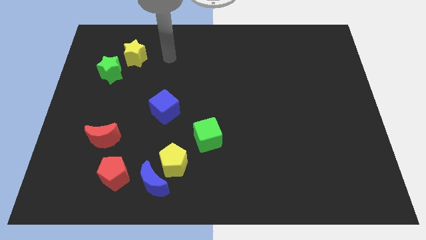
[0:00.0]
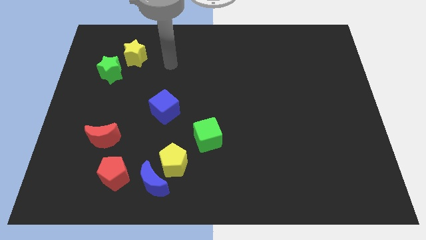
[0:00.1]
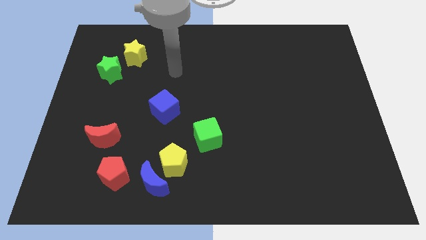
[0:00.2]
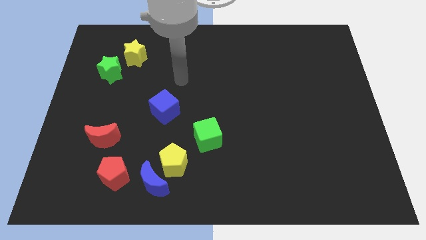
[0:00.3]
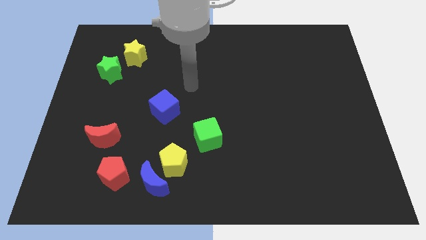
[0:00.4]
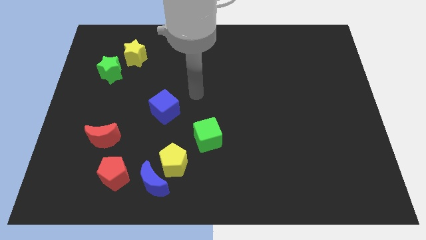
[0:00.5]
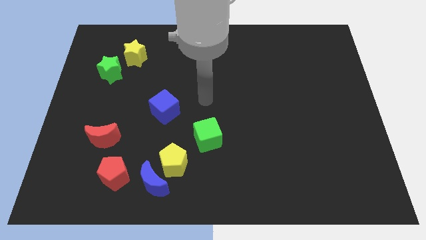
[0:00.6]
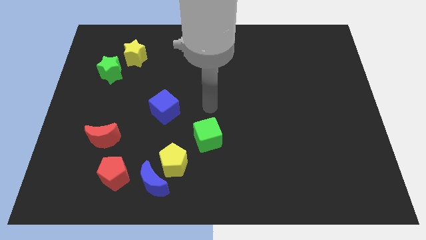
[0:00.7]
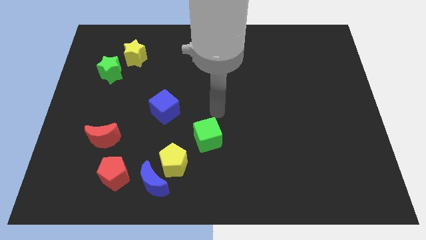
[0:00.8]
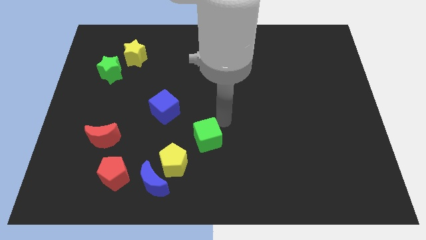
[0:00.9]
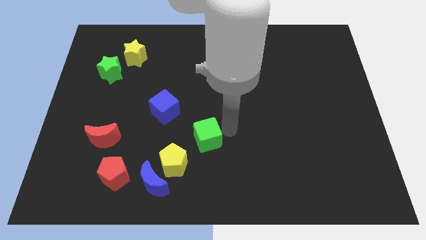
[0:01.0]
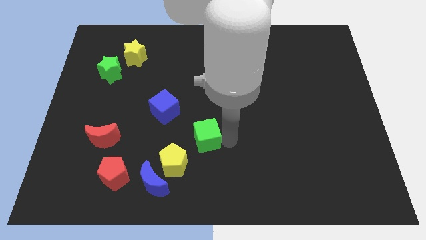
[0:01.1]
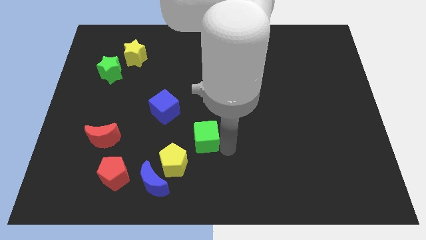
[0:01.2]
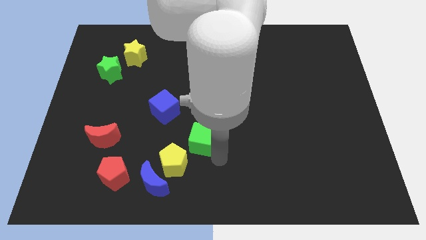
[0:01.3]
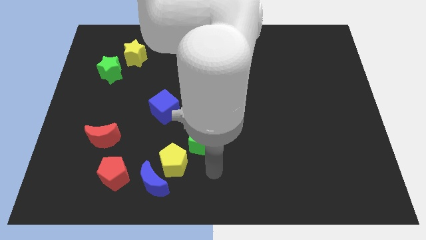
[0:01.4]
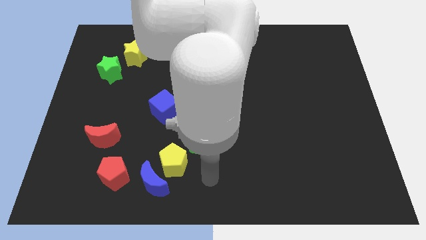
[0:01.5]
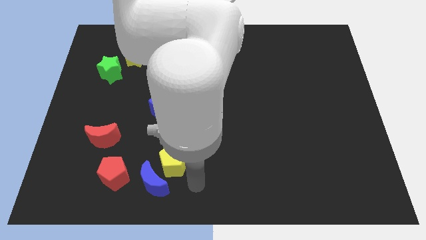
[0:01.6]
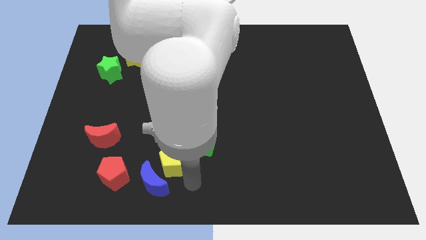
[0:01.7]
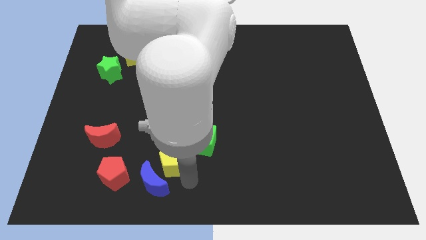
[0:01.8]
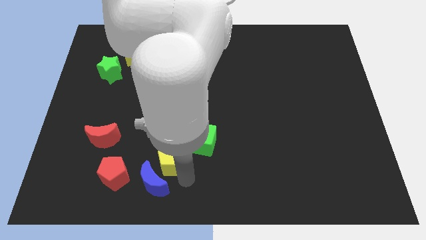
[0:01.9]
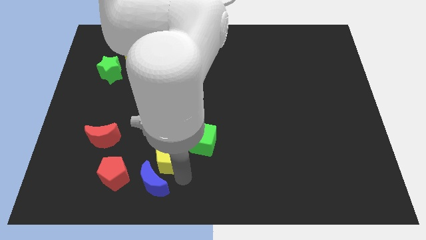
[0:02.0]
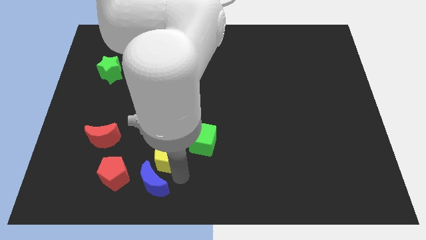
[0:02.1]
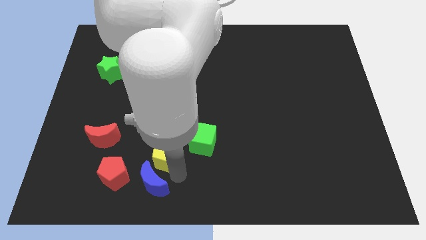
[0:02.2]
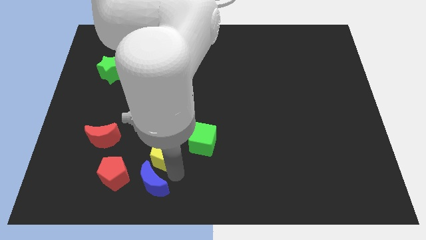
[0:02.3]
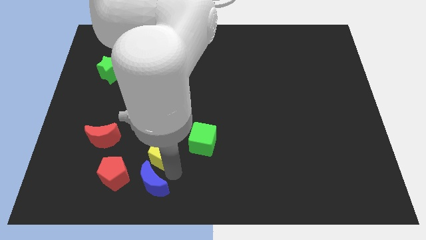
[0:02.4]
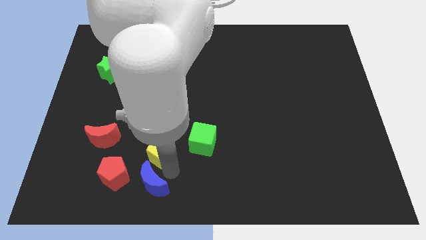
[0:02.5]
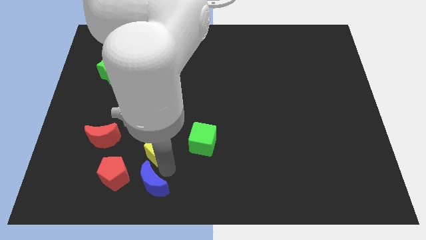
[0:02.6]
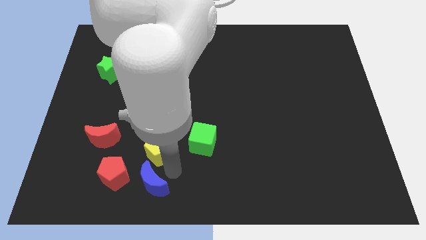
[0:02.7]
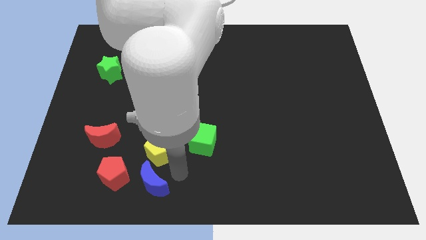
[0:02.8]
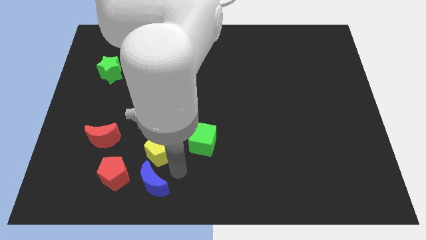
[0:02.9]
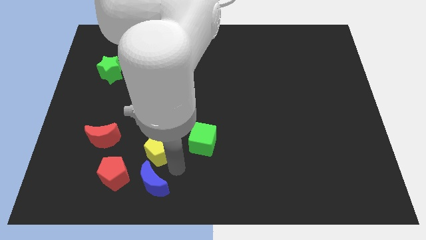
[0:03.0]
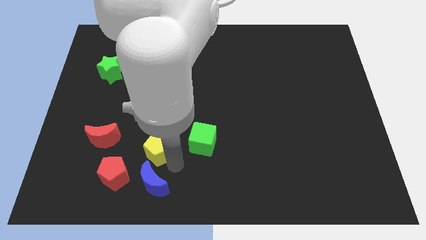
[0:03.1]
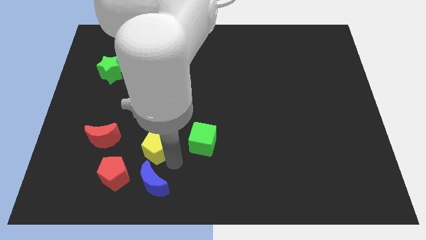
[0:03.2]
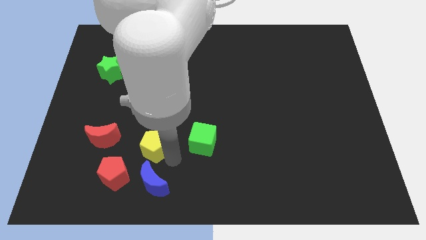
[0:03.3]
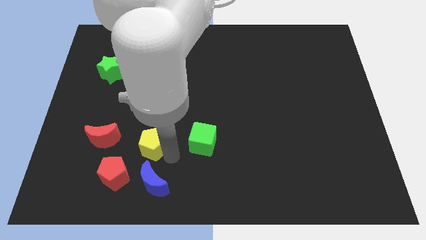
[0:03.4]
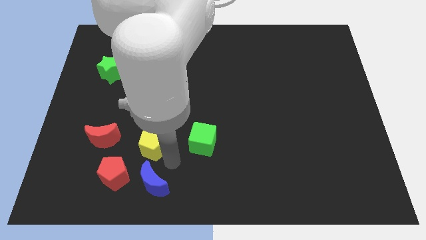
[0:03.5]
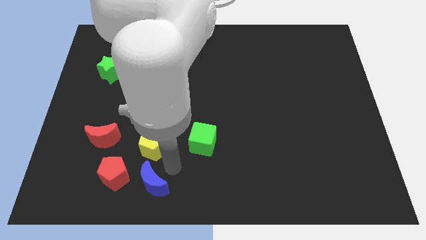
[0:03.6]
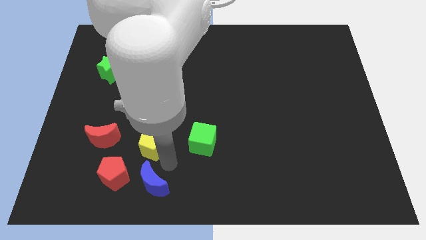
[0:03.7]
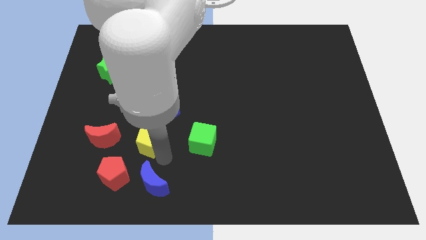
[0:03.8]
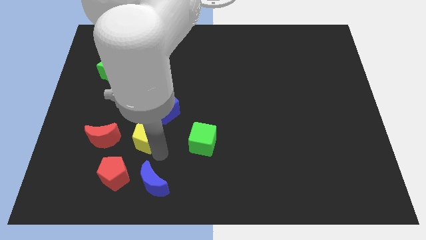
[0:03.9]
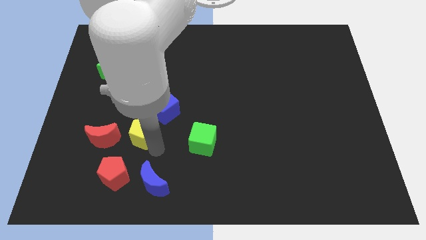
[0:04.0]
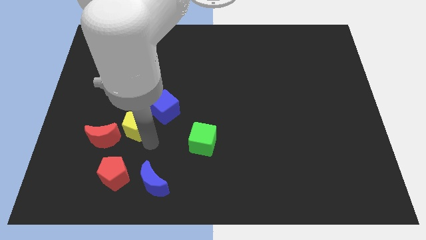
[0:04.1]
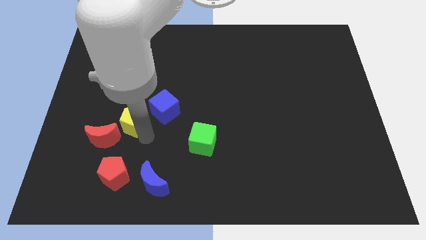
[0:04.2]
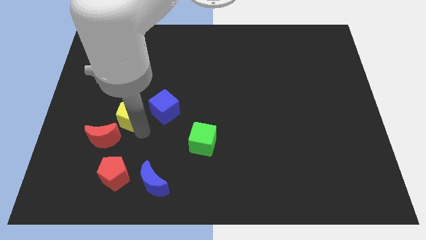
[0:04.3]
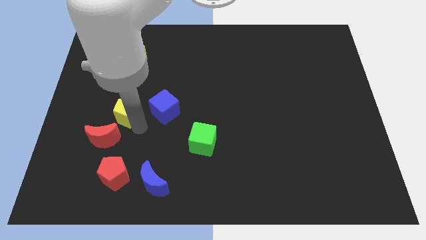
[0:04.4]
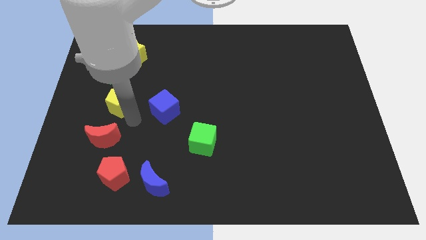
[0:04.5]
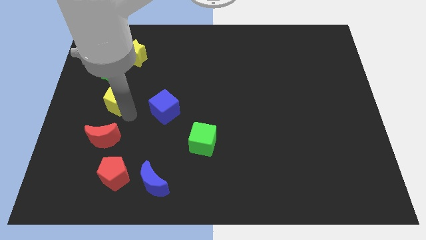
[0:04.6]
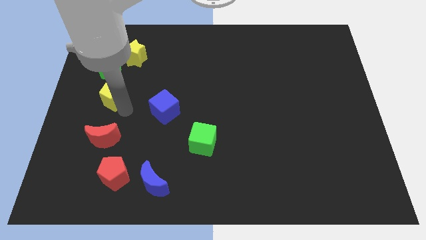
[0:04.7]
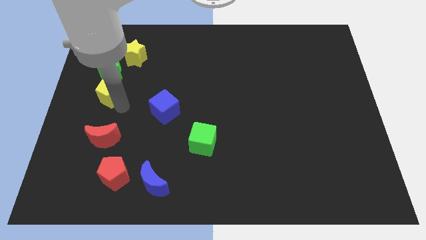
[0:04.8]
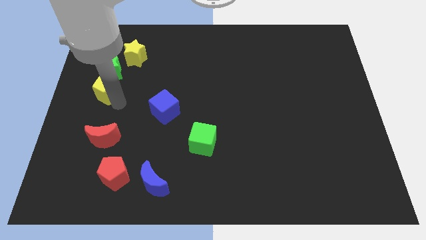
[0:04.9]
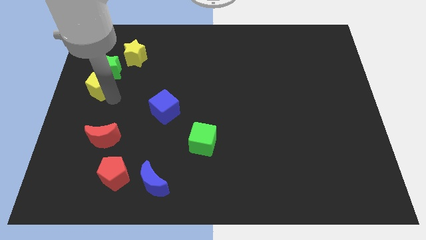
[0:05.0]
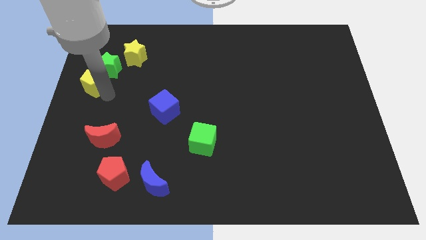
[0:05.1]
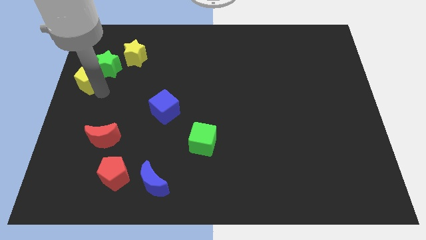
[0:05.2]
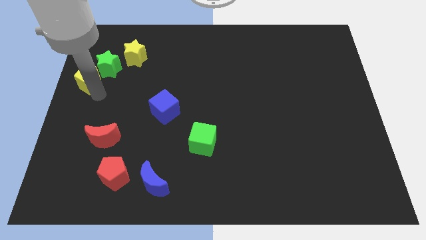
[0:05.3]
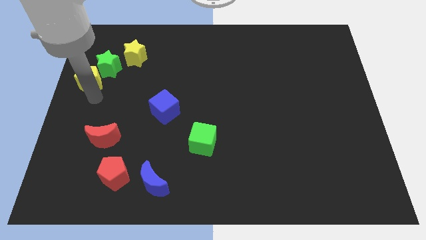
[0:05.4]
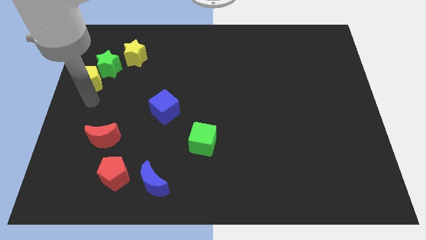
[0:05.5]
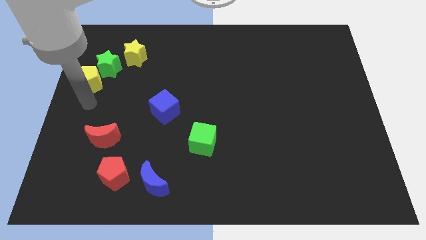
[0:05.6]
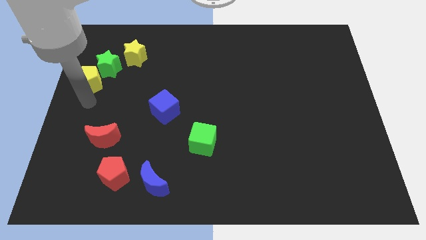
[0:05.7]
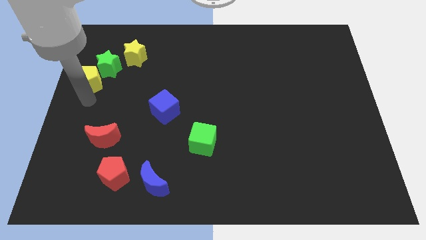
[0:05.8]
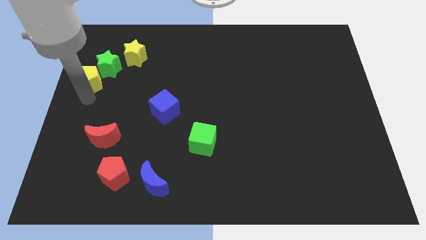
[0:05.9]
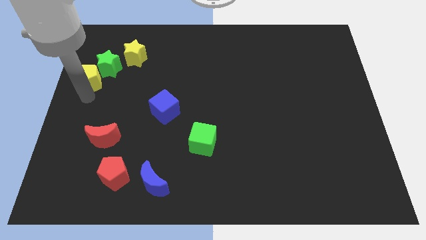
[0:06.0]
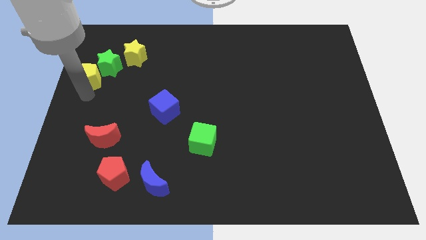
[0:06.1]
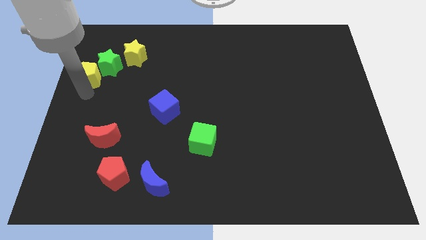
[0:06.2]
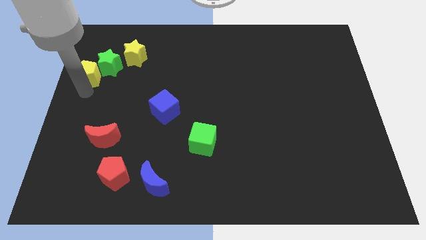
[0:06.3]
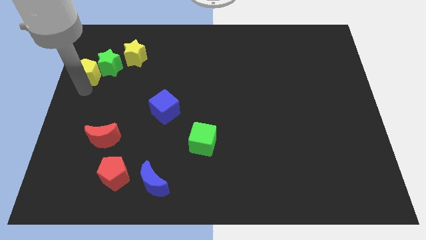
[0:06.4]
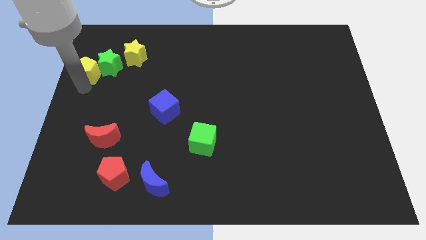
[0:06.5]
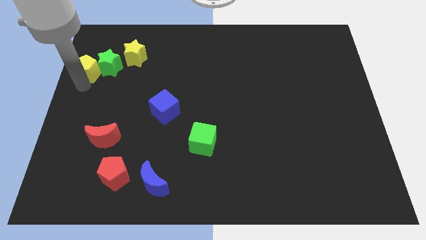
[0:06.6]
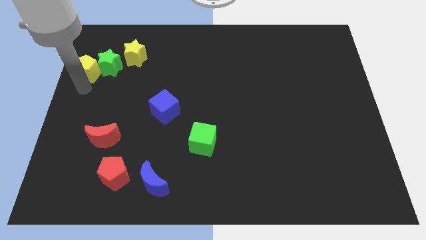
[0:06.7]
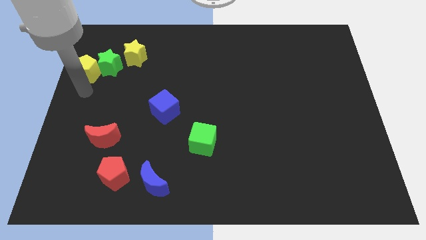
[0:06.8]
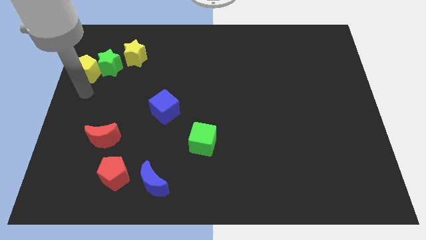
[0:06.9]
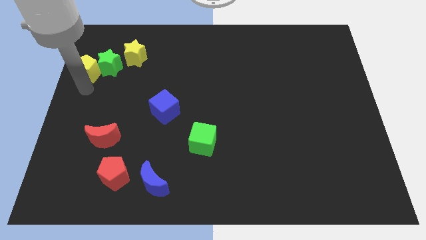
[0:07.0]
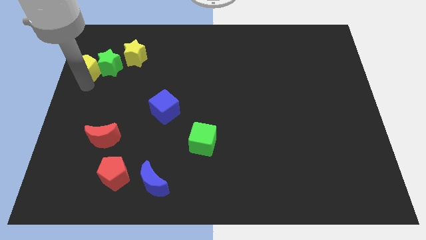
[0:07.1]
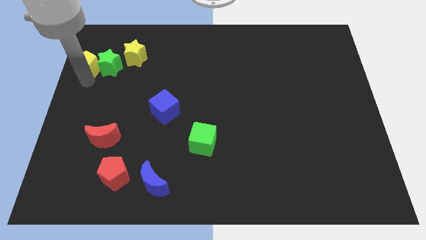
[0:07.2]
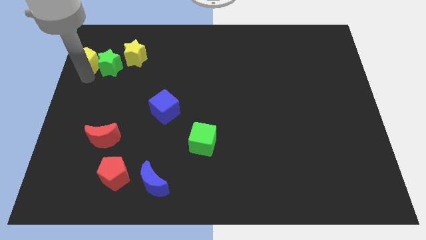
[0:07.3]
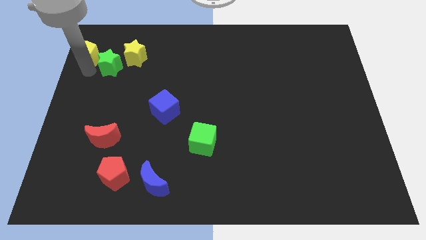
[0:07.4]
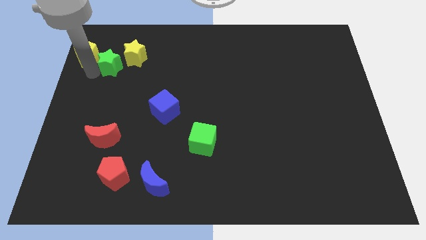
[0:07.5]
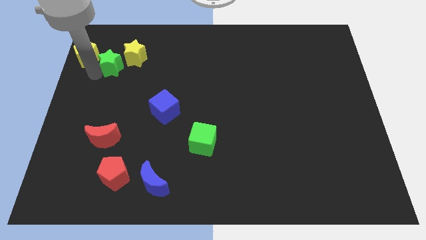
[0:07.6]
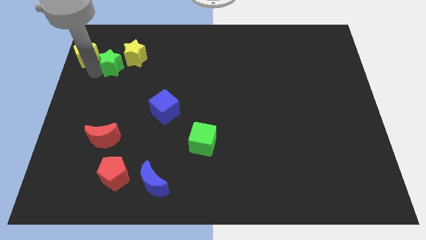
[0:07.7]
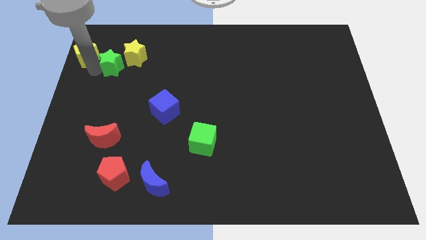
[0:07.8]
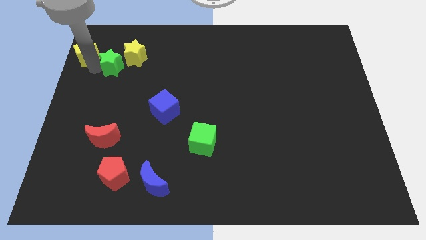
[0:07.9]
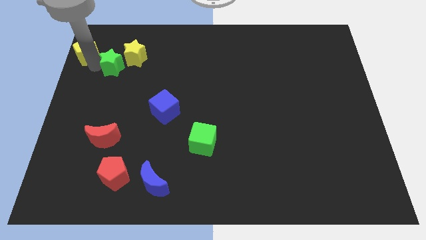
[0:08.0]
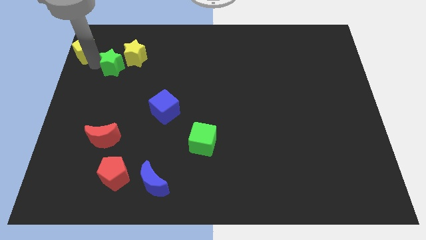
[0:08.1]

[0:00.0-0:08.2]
put the yellow pentagon to the top left
